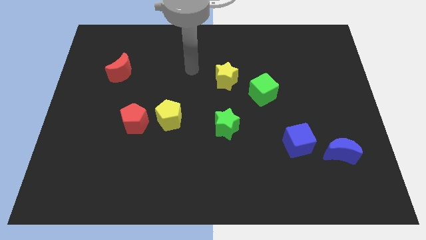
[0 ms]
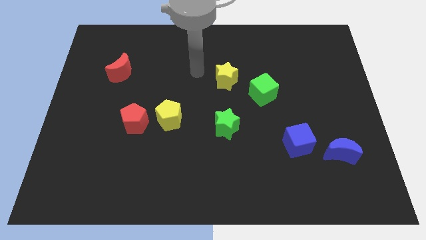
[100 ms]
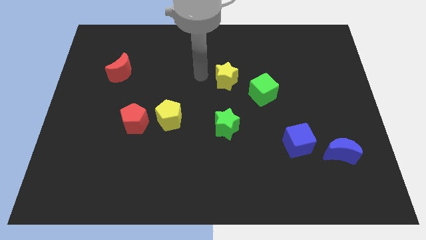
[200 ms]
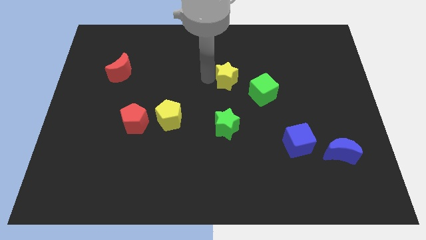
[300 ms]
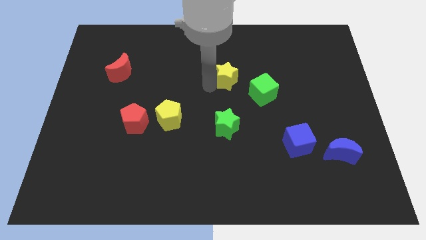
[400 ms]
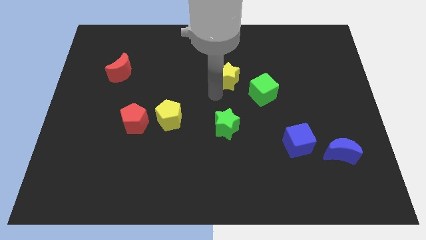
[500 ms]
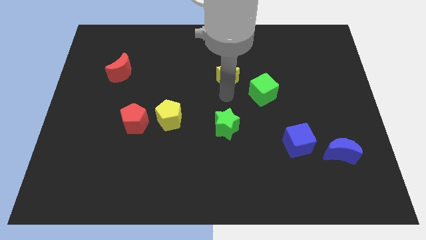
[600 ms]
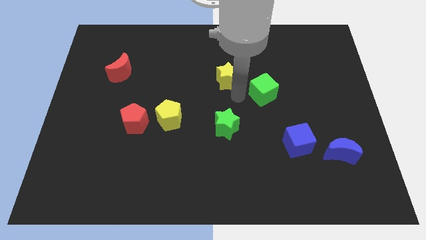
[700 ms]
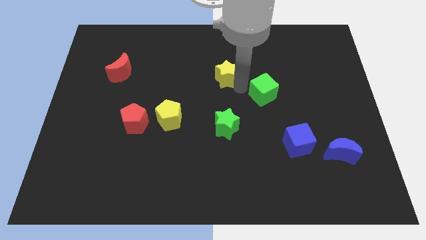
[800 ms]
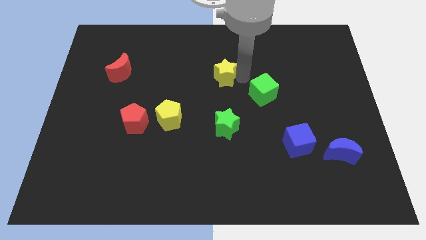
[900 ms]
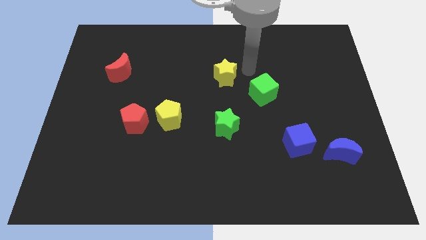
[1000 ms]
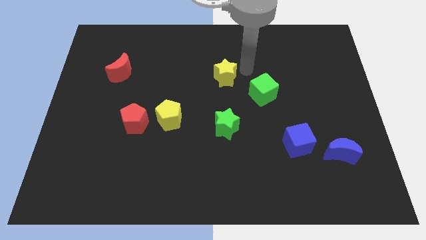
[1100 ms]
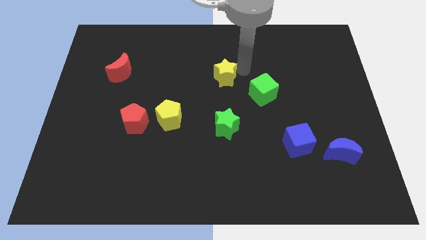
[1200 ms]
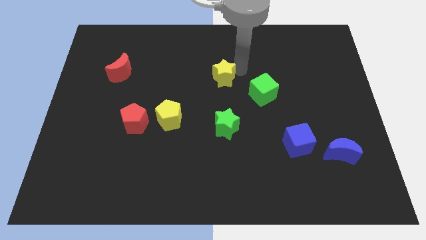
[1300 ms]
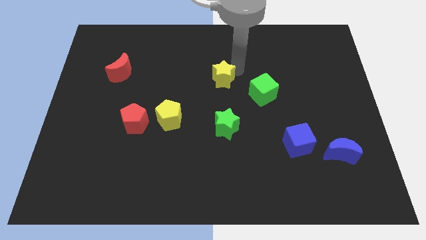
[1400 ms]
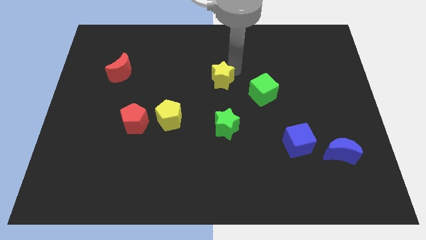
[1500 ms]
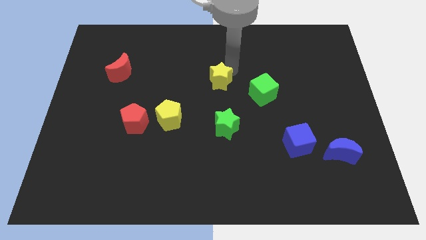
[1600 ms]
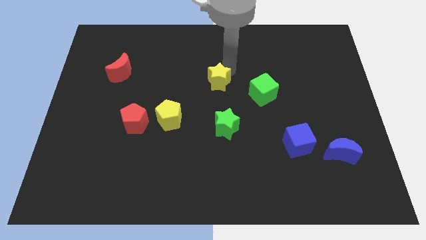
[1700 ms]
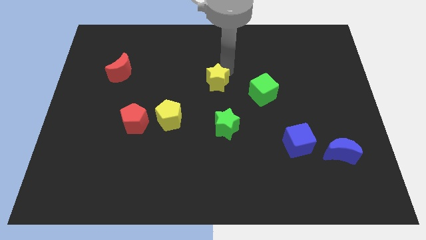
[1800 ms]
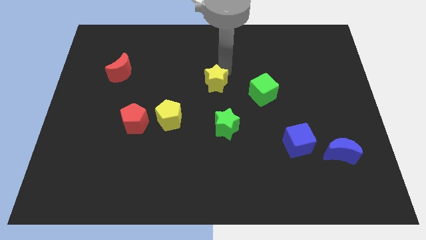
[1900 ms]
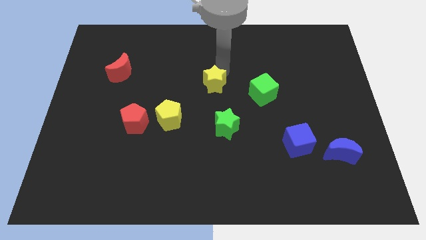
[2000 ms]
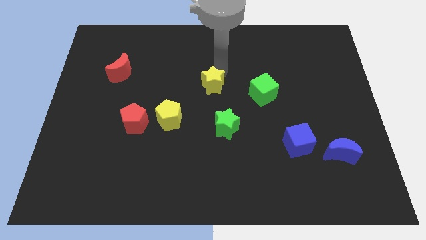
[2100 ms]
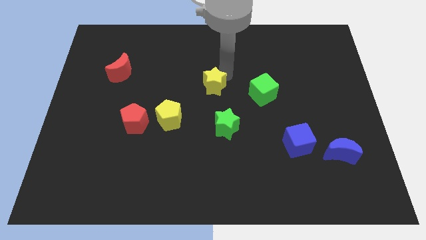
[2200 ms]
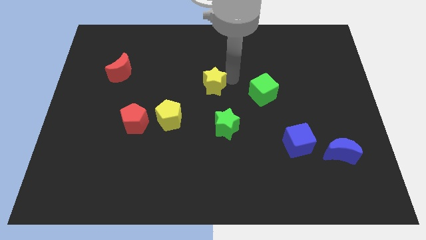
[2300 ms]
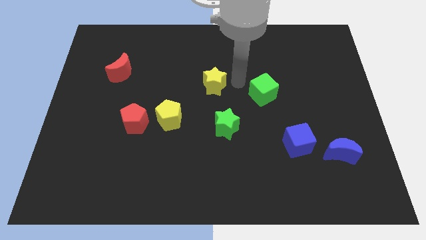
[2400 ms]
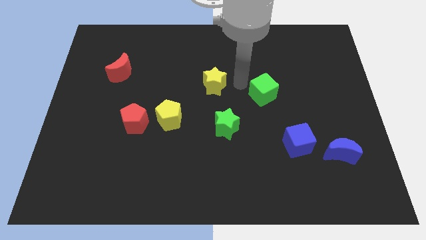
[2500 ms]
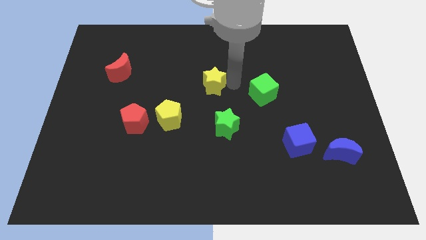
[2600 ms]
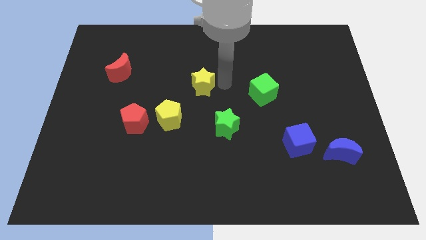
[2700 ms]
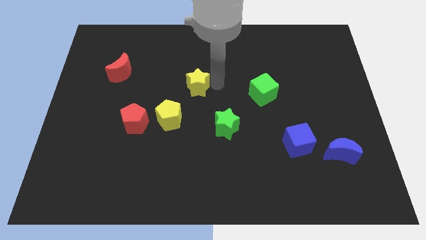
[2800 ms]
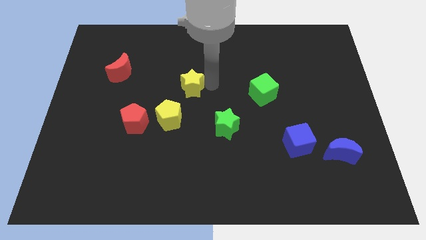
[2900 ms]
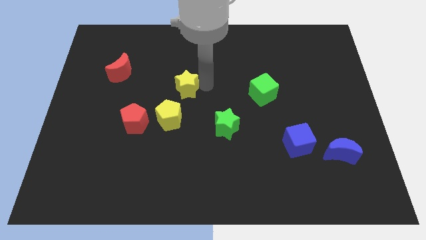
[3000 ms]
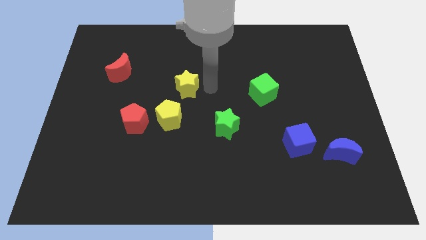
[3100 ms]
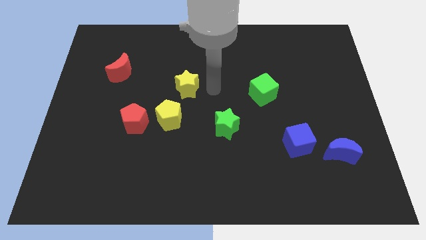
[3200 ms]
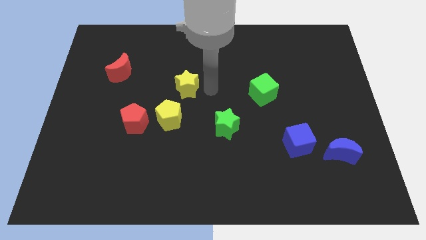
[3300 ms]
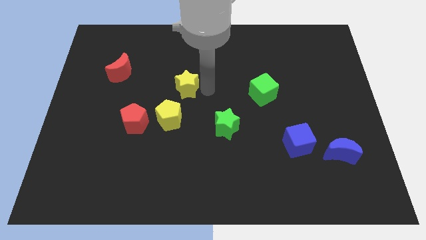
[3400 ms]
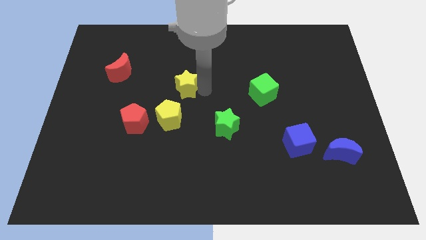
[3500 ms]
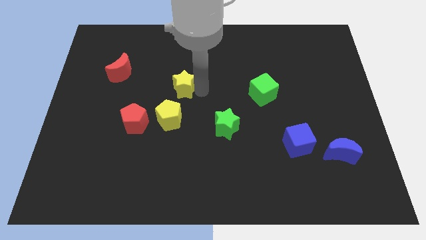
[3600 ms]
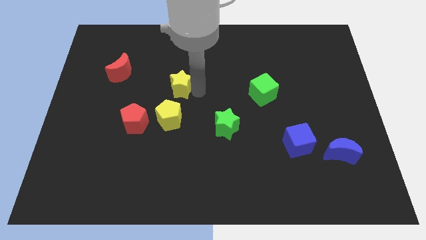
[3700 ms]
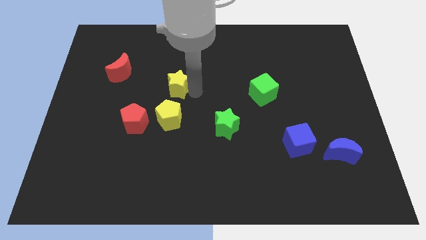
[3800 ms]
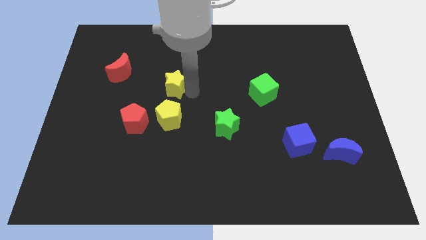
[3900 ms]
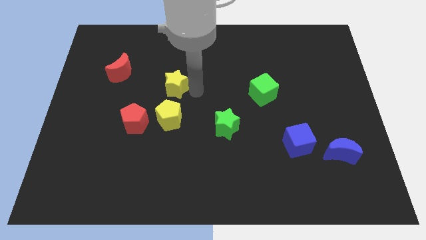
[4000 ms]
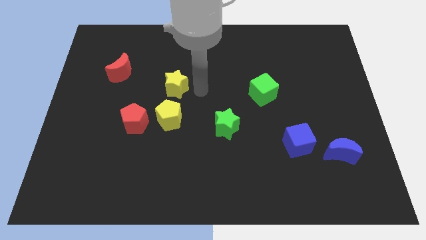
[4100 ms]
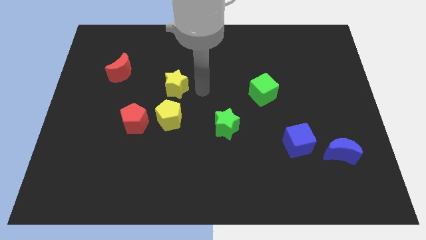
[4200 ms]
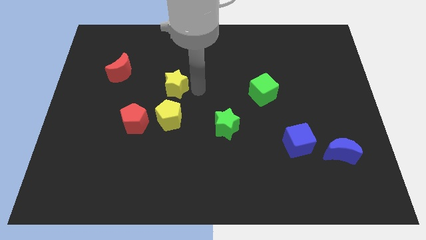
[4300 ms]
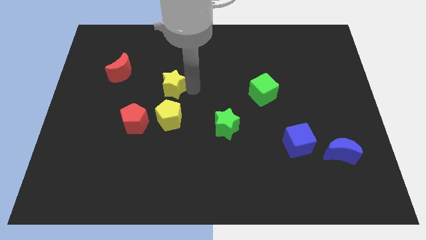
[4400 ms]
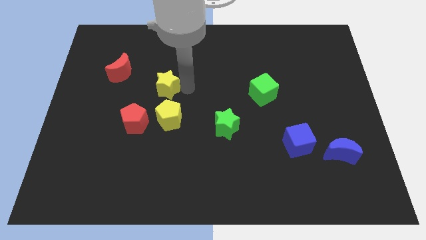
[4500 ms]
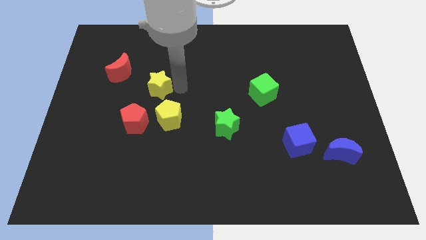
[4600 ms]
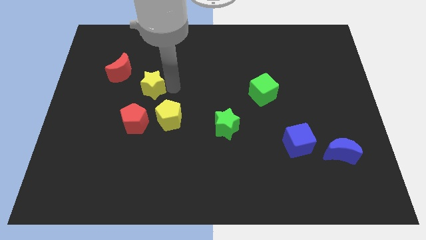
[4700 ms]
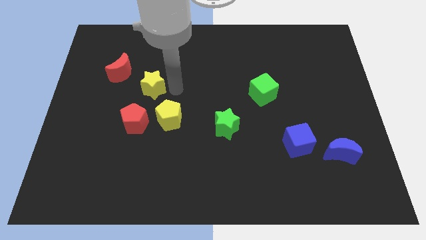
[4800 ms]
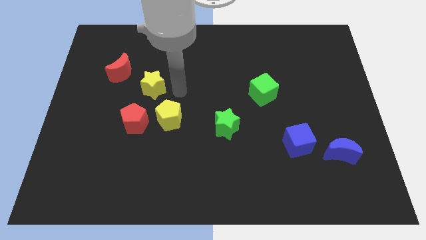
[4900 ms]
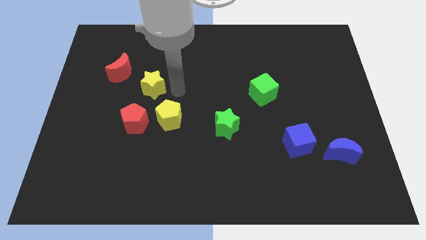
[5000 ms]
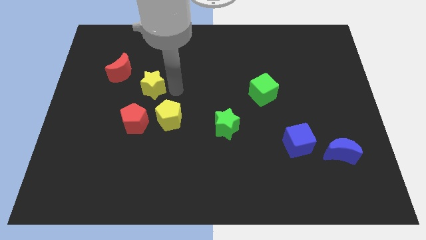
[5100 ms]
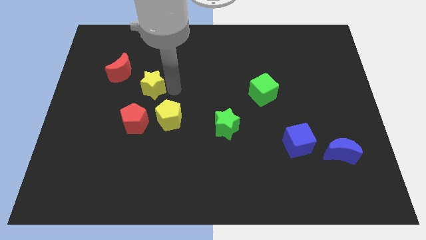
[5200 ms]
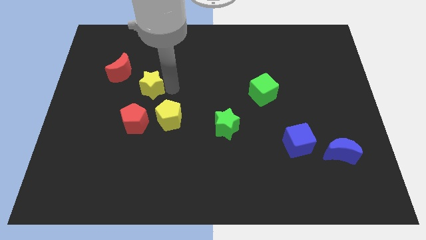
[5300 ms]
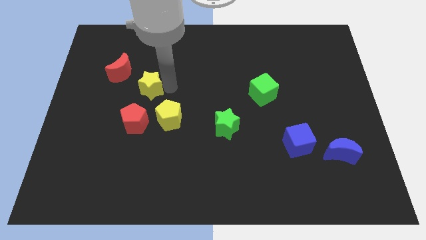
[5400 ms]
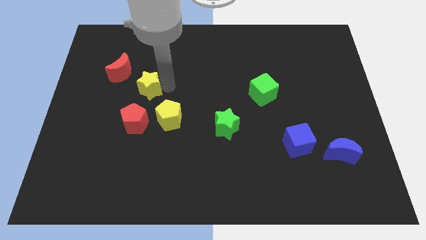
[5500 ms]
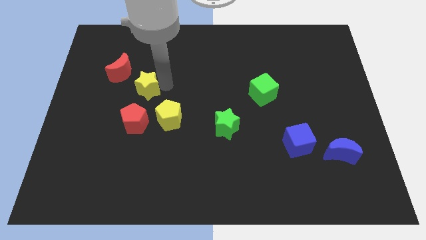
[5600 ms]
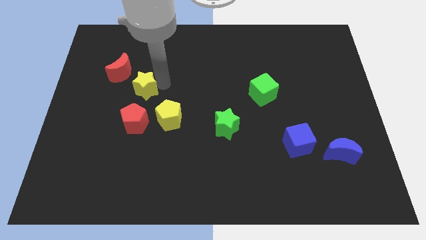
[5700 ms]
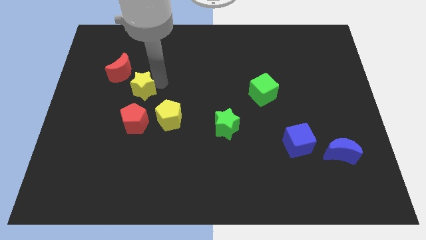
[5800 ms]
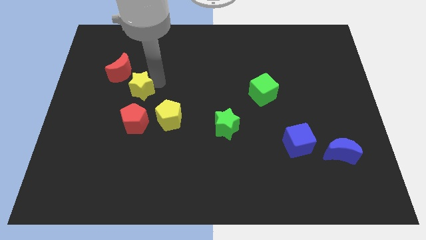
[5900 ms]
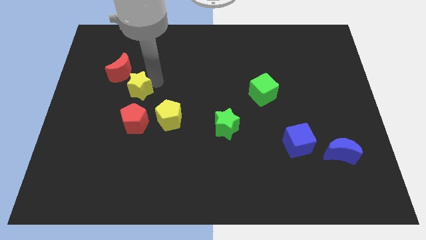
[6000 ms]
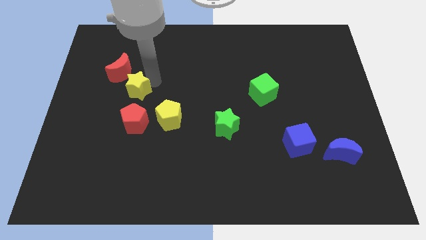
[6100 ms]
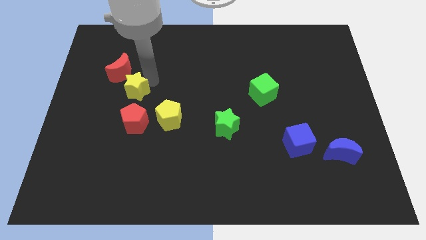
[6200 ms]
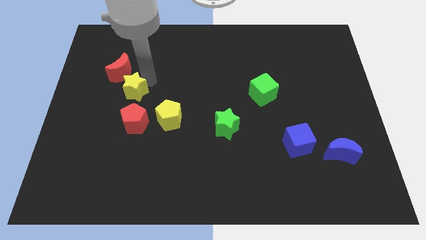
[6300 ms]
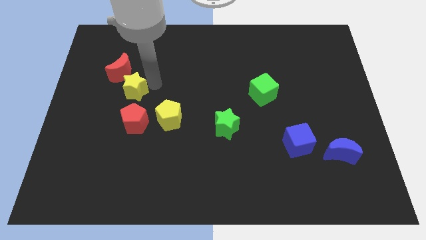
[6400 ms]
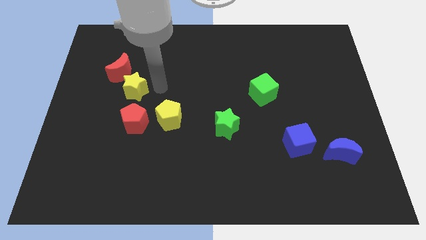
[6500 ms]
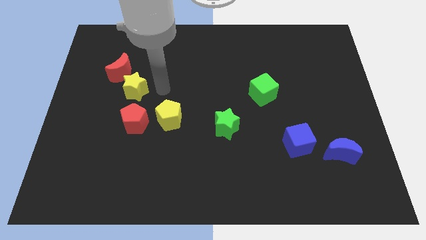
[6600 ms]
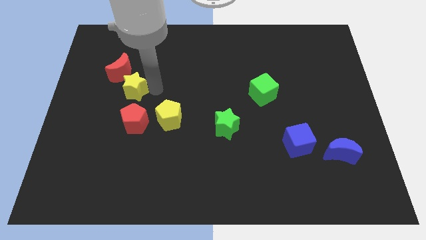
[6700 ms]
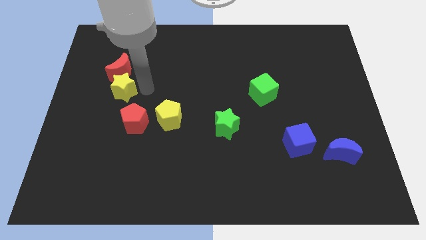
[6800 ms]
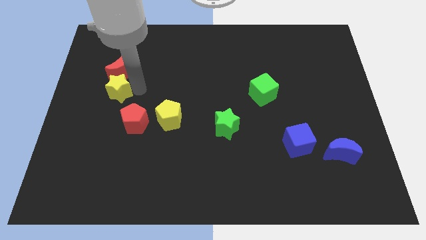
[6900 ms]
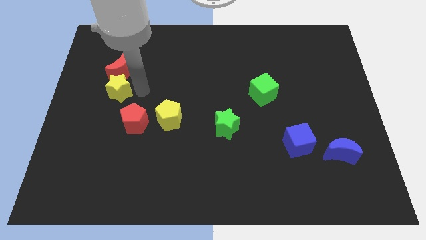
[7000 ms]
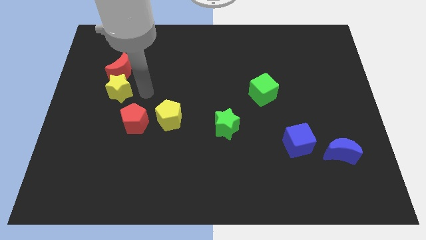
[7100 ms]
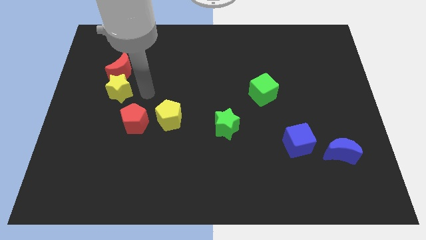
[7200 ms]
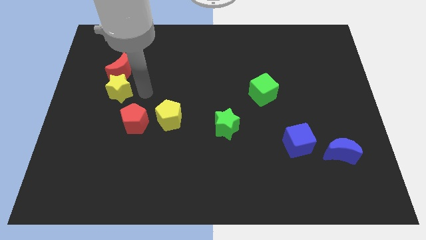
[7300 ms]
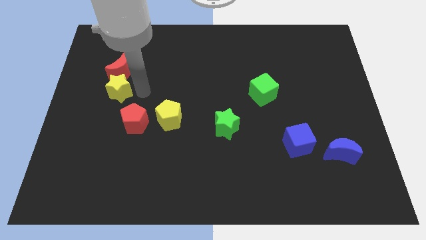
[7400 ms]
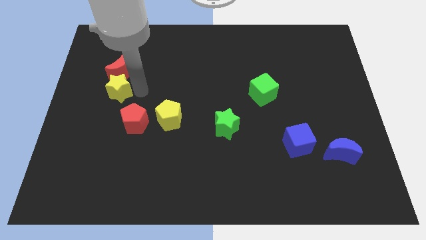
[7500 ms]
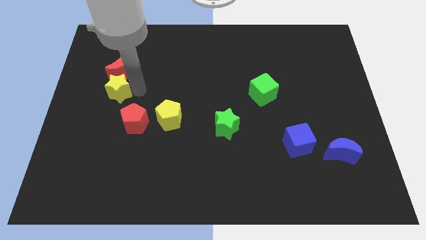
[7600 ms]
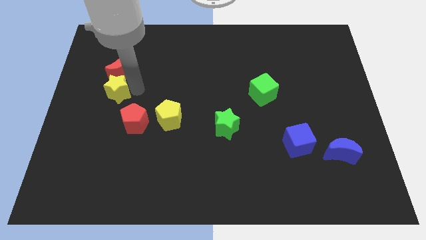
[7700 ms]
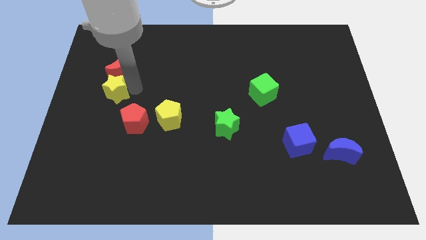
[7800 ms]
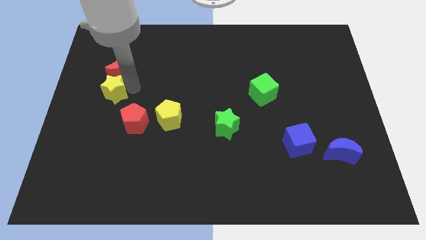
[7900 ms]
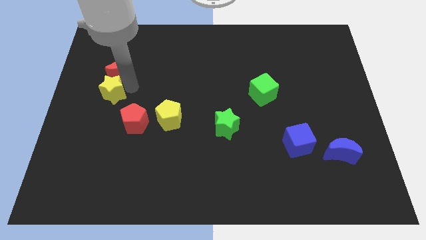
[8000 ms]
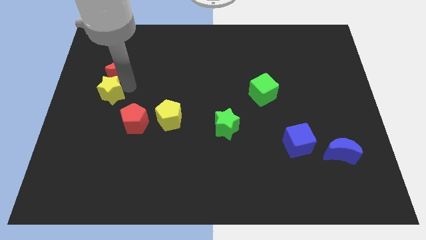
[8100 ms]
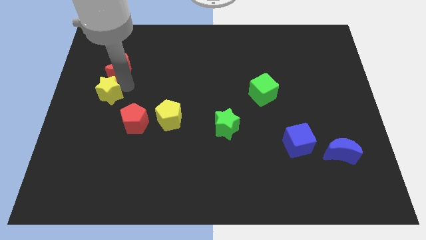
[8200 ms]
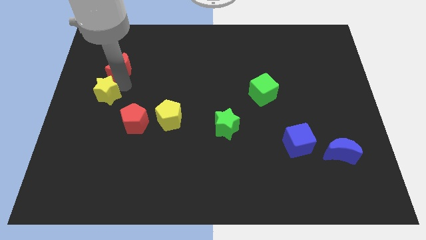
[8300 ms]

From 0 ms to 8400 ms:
put the yellow star to the left side of the board
